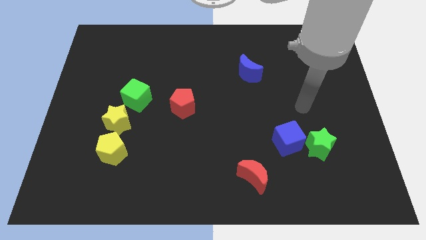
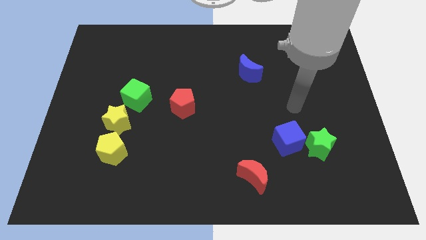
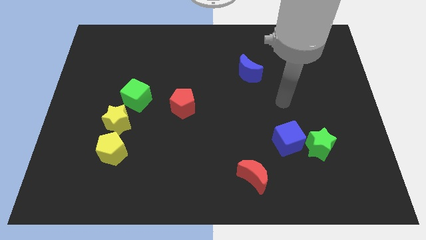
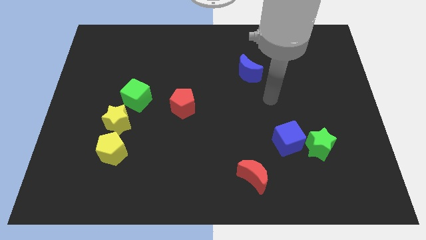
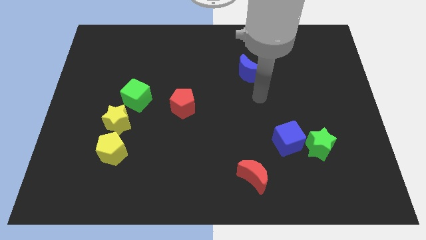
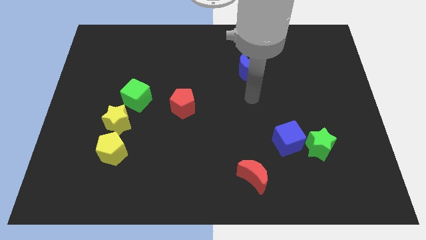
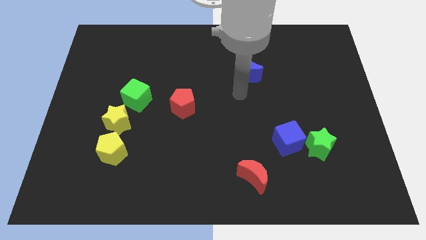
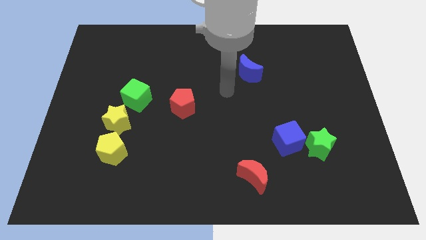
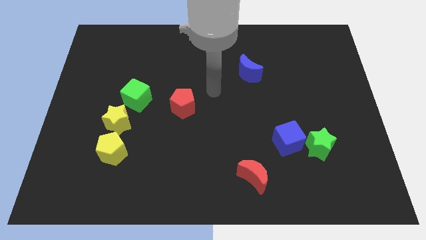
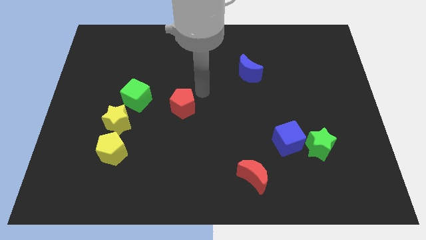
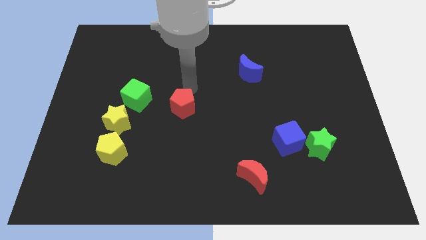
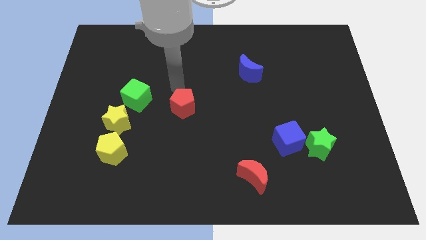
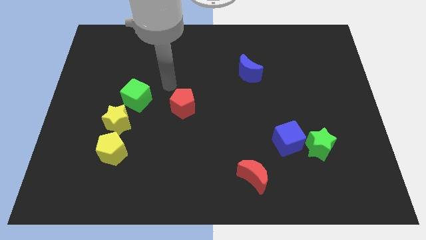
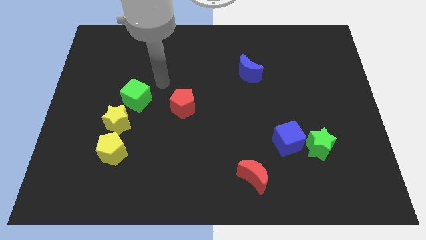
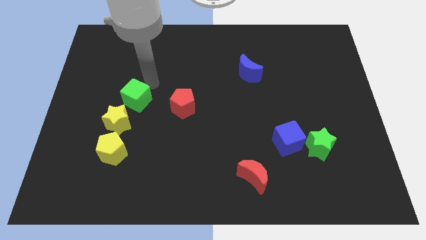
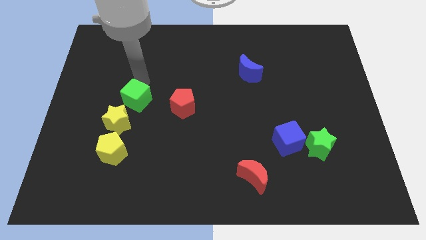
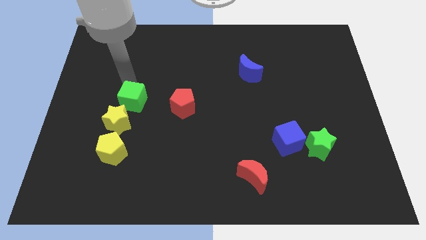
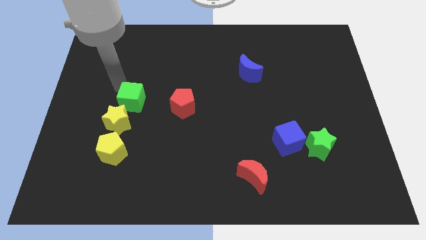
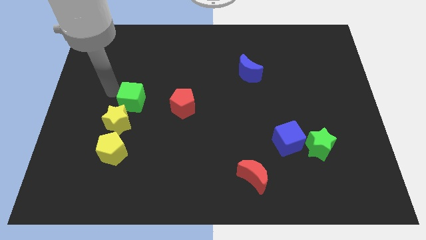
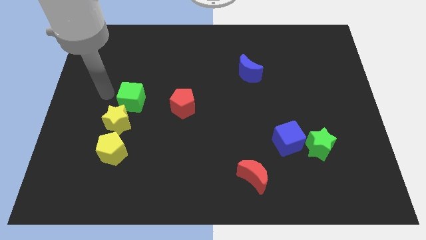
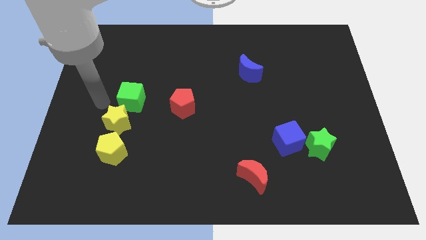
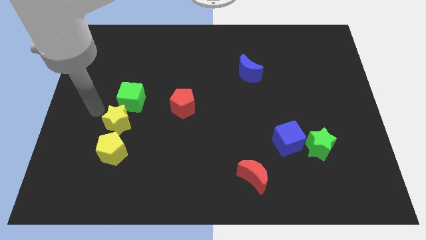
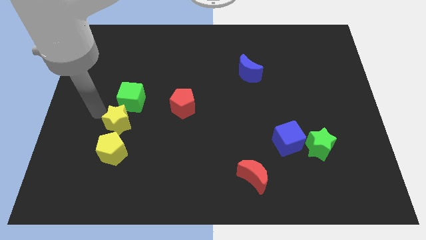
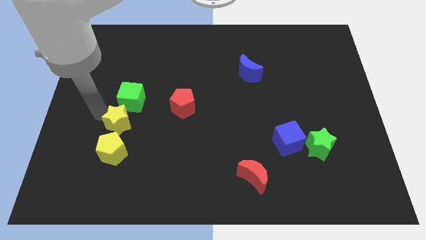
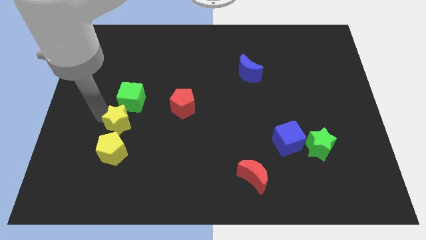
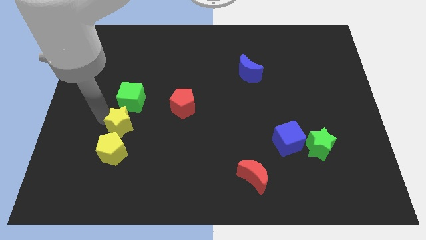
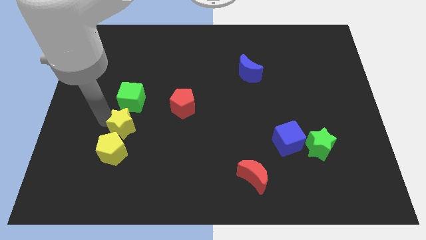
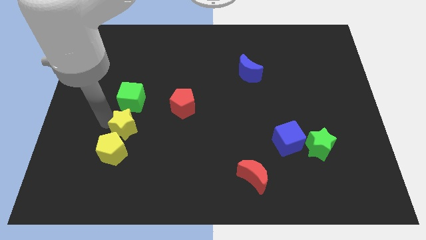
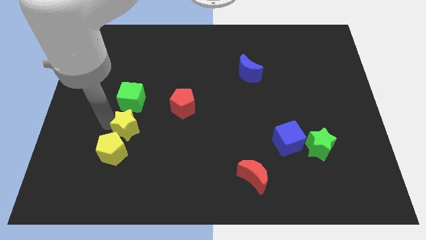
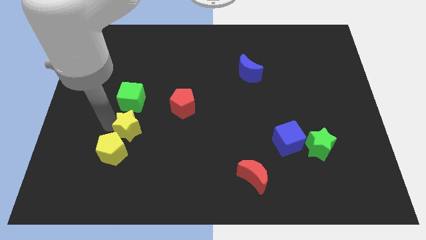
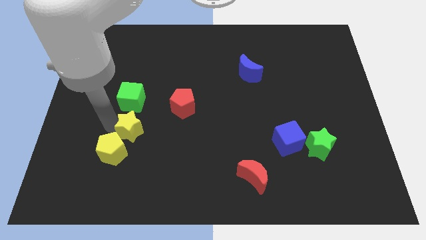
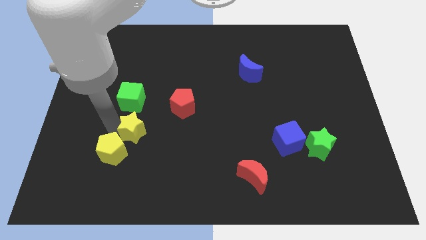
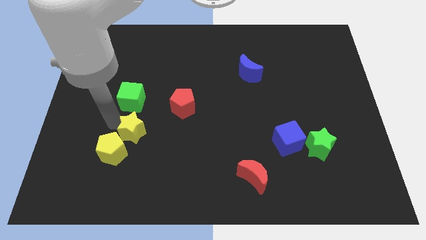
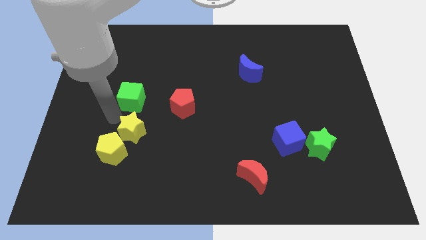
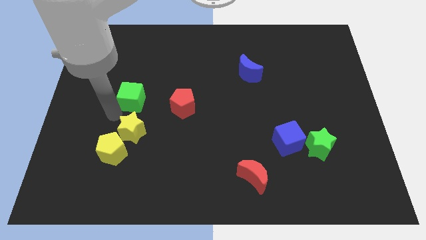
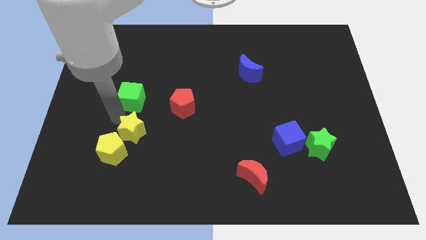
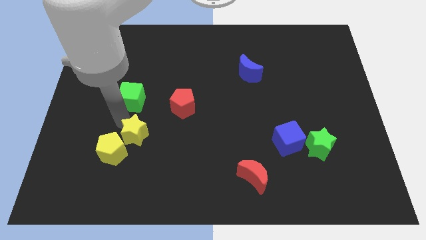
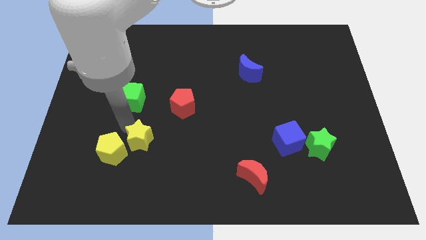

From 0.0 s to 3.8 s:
move the yellow star down and to the right diagonally slightly

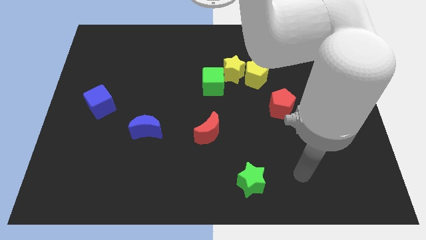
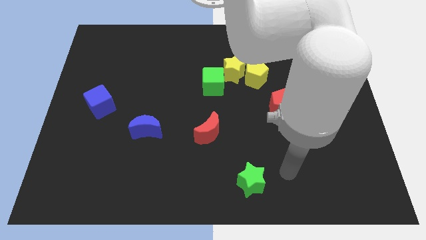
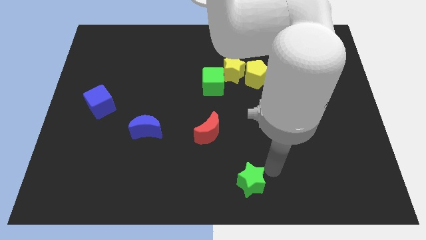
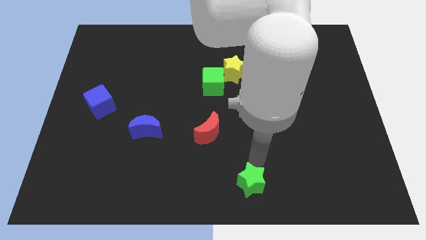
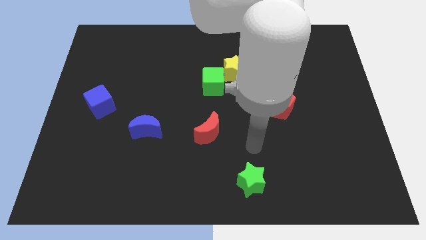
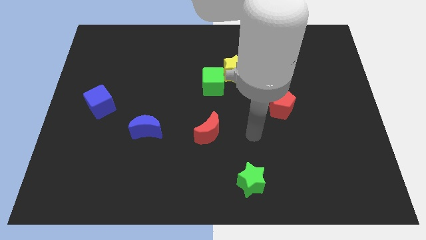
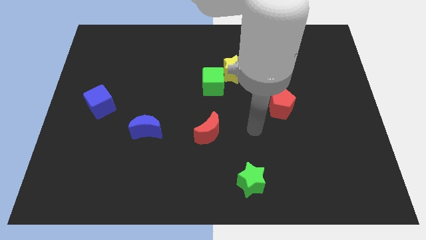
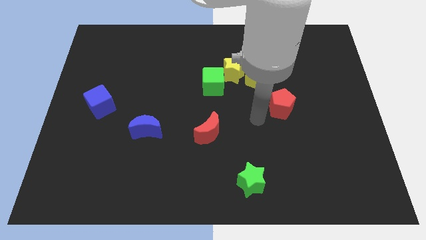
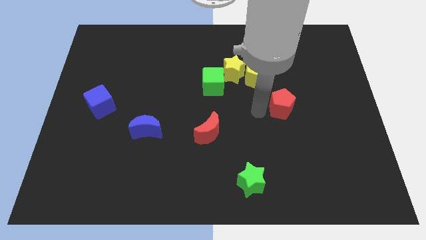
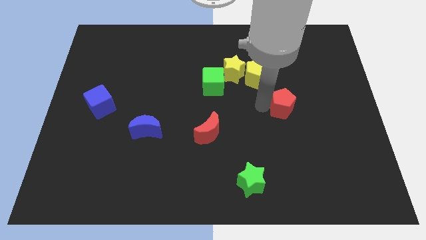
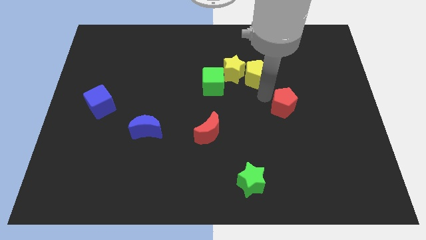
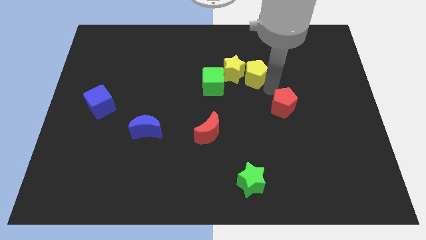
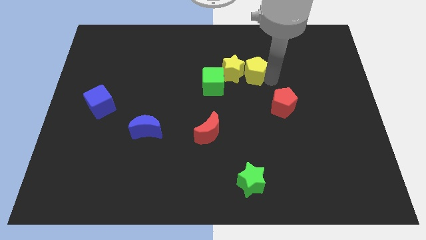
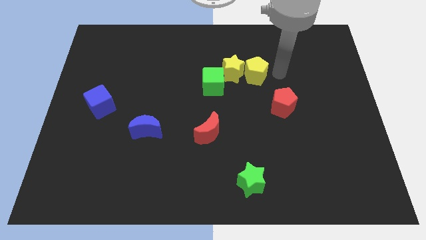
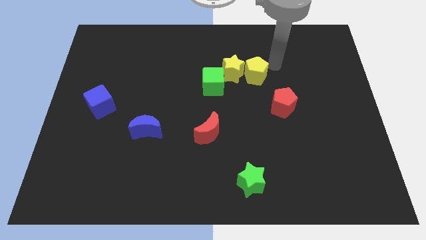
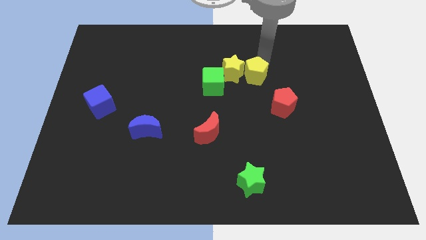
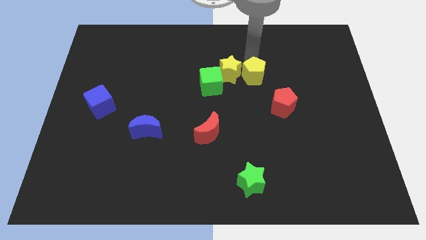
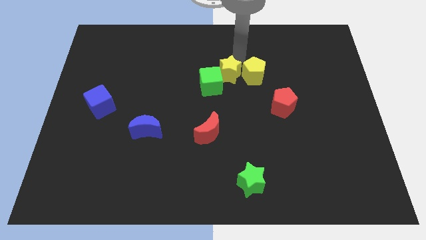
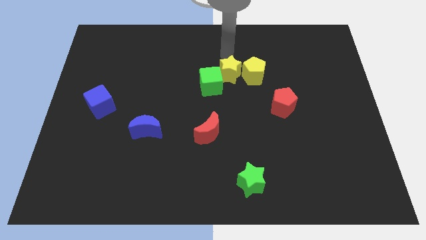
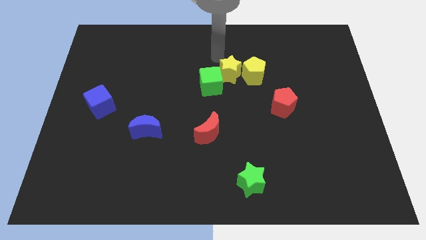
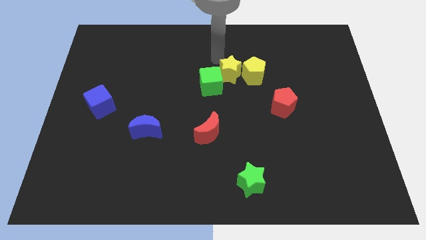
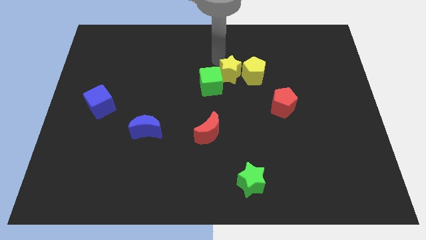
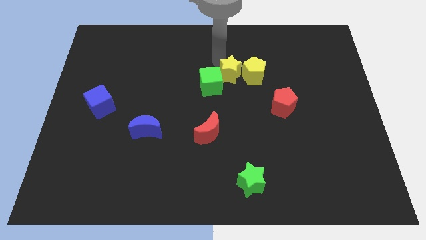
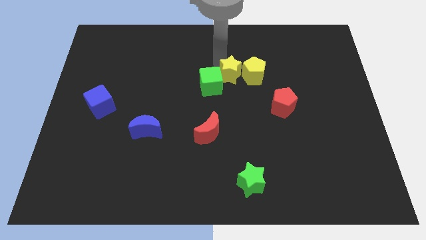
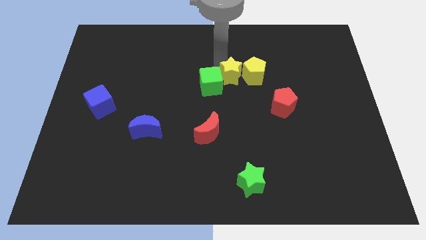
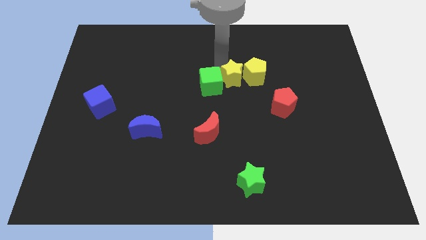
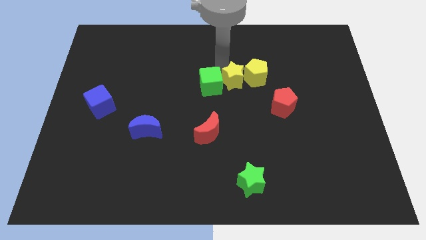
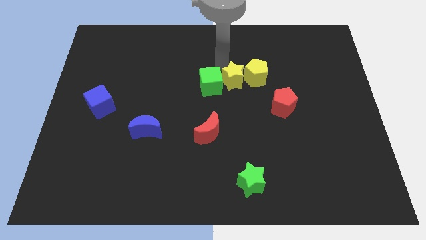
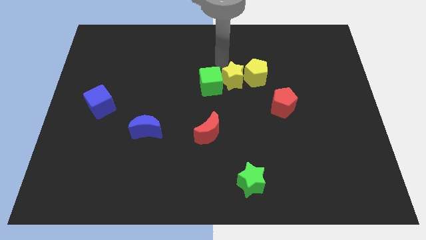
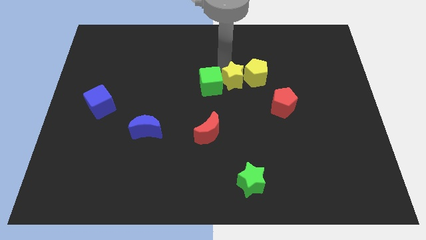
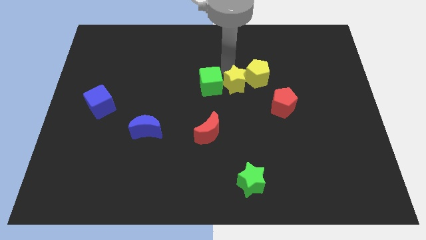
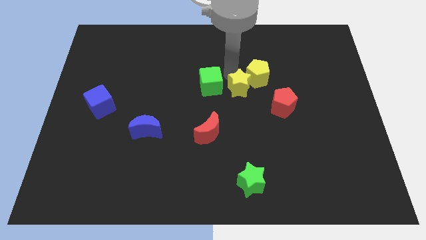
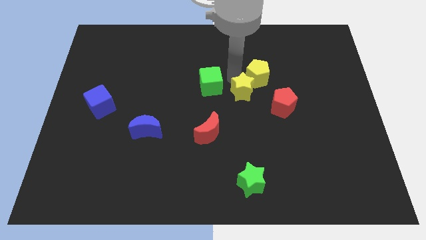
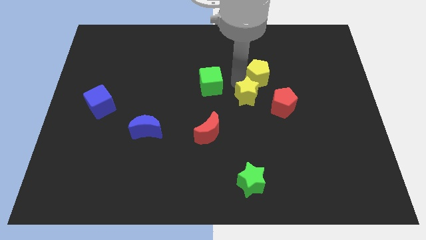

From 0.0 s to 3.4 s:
move the yellow star somewhat down and then right

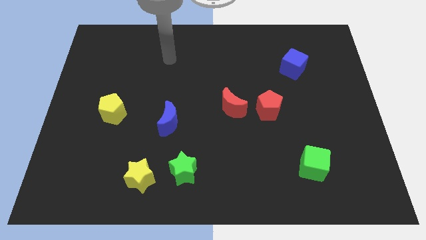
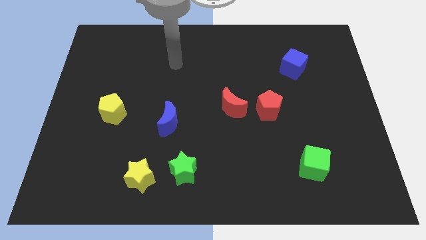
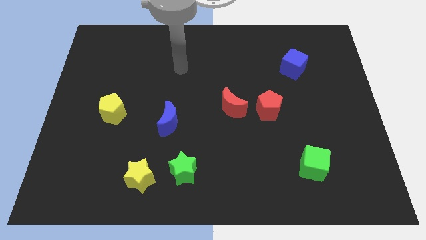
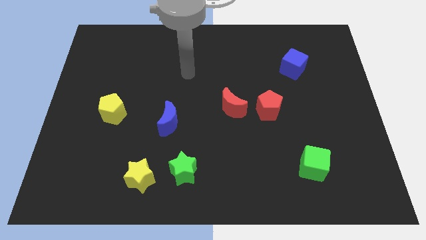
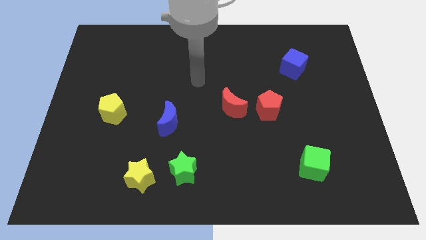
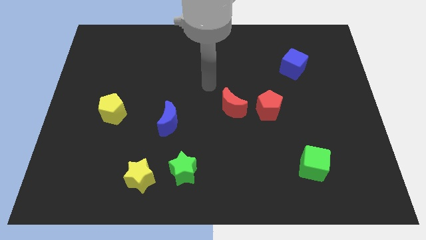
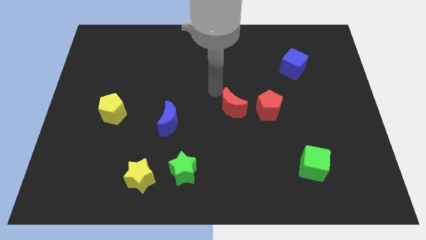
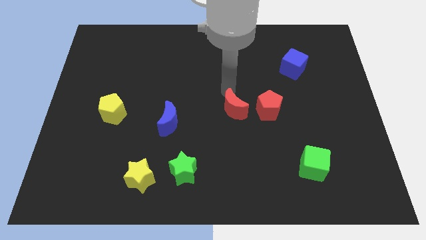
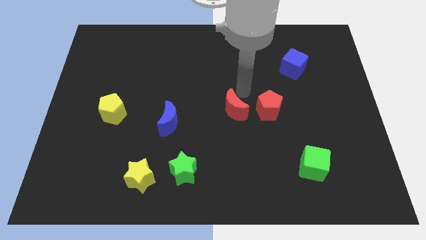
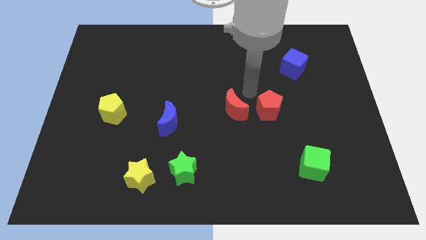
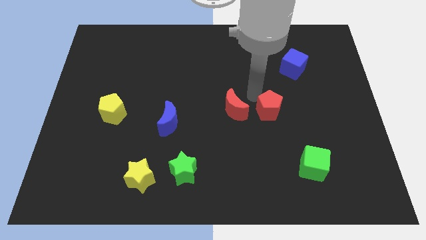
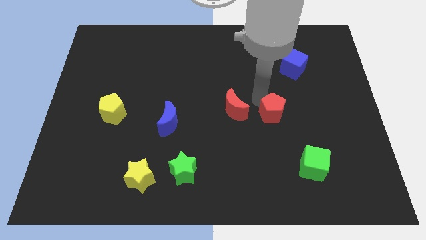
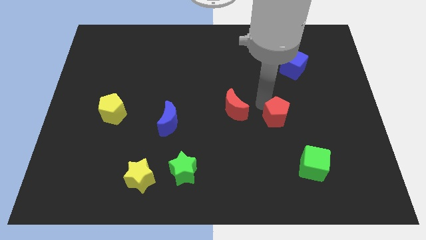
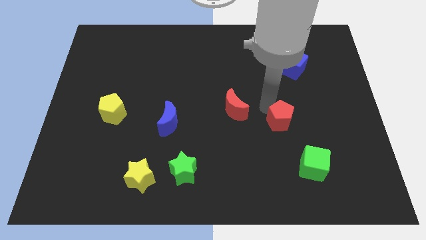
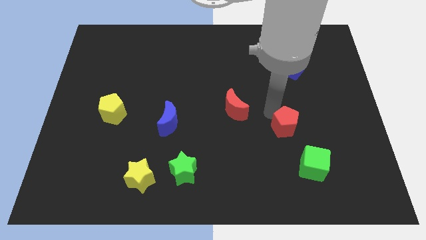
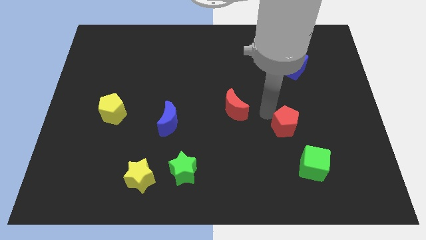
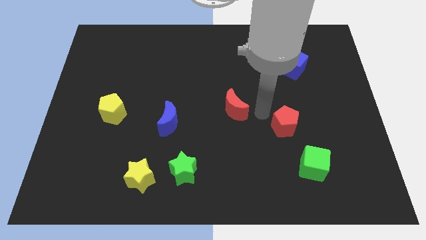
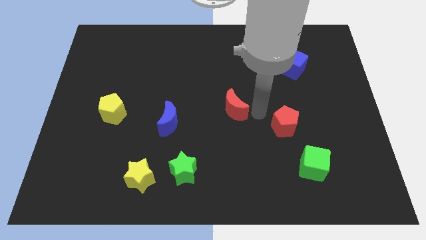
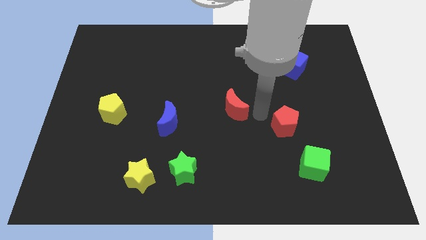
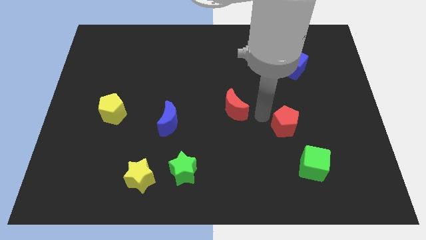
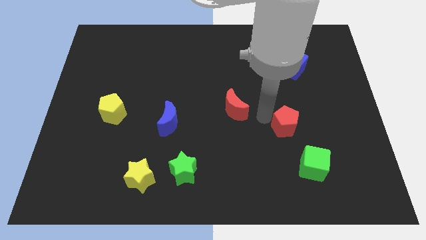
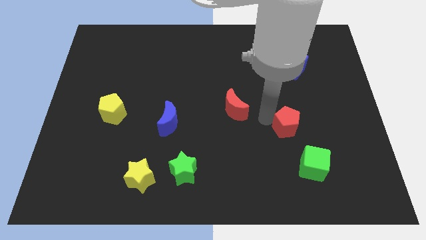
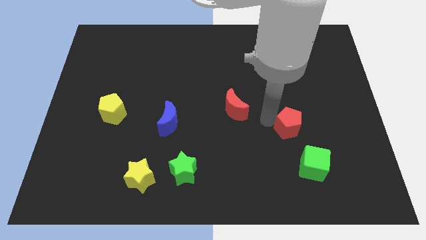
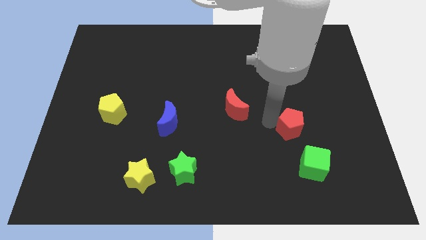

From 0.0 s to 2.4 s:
move the red pentagon a little bit diagonally downwards and right
